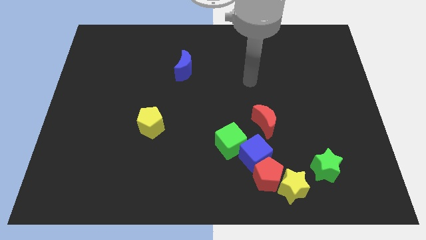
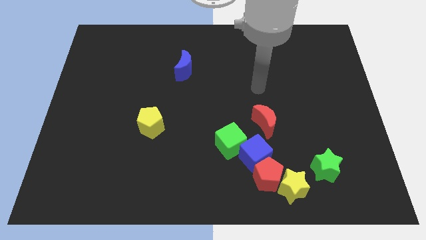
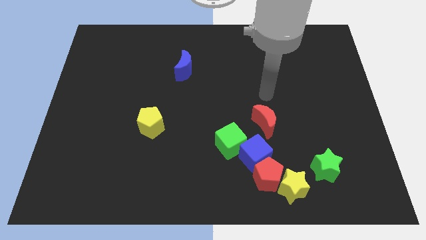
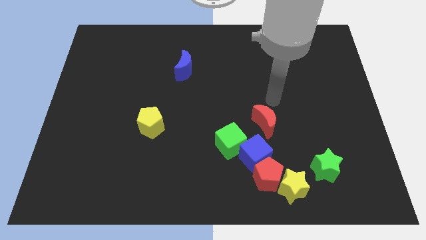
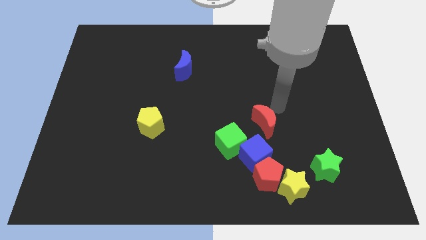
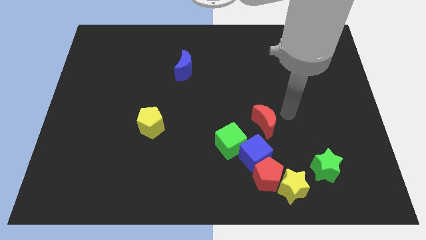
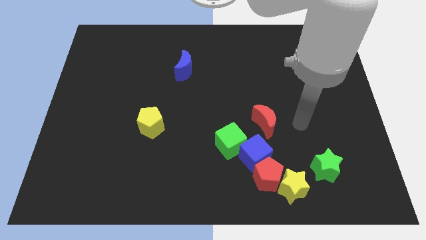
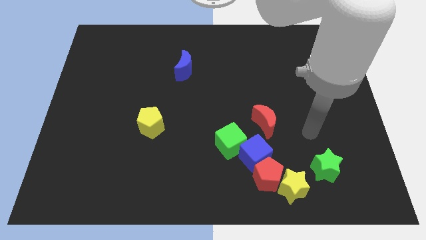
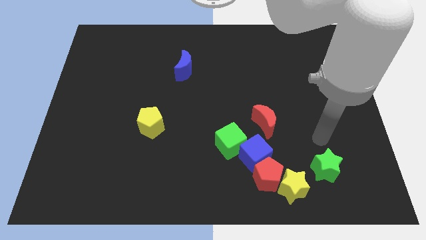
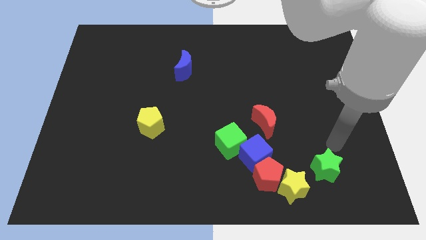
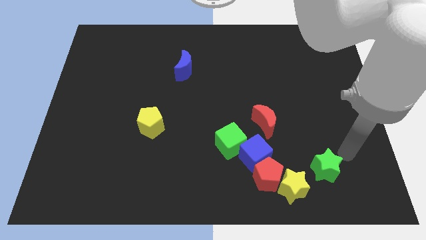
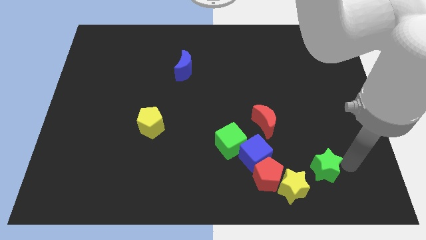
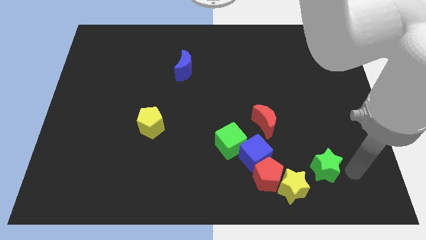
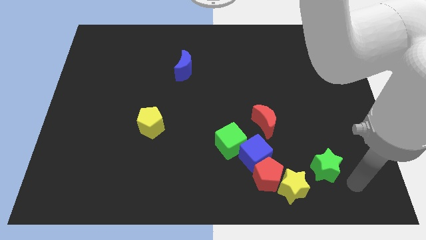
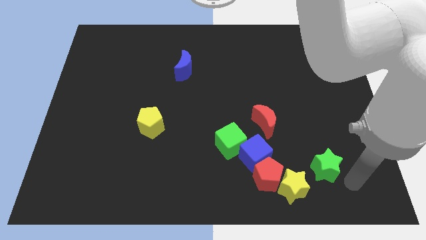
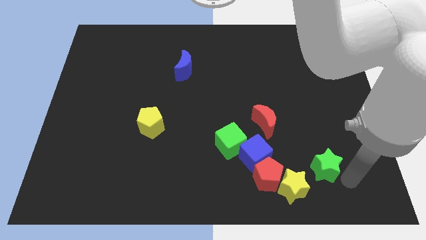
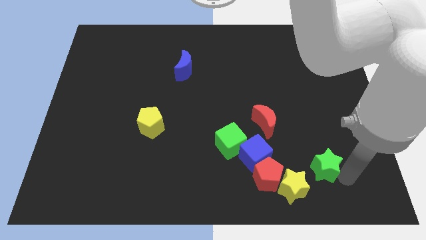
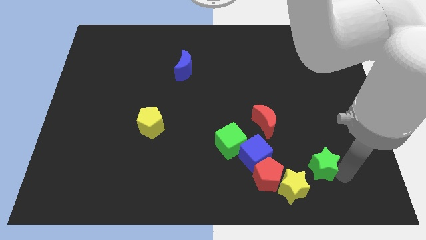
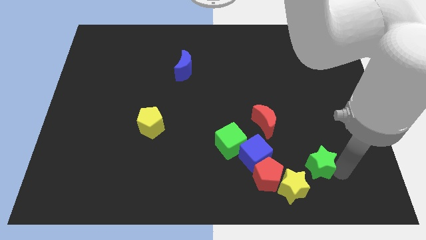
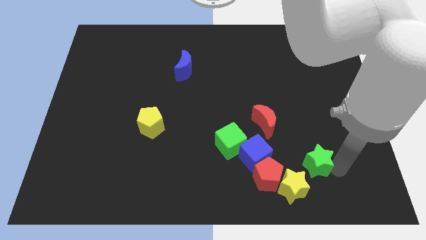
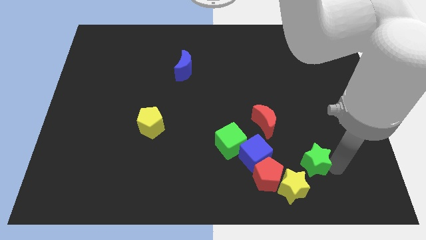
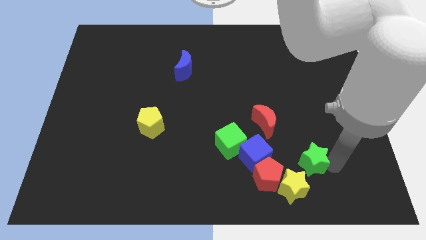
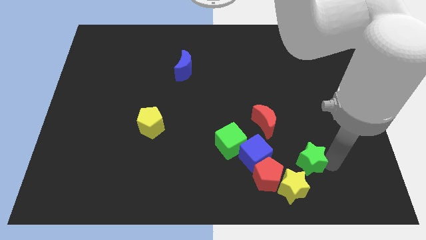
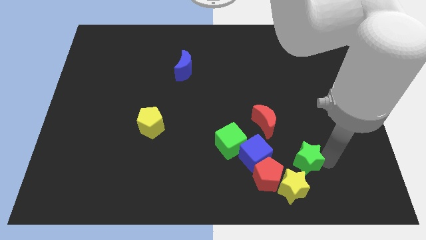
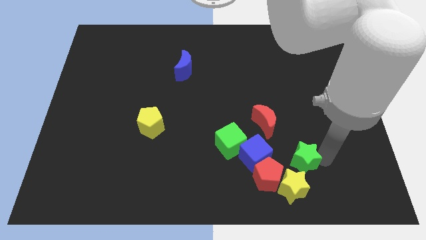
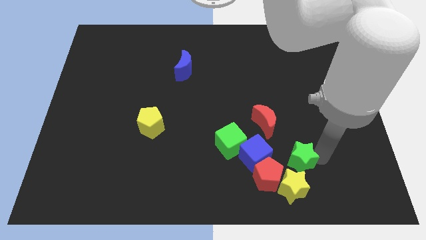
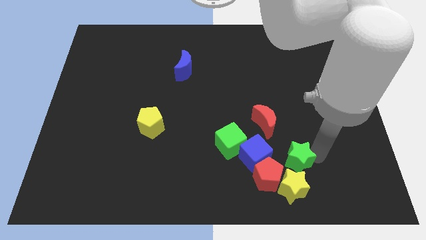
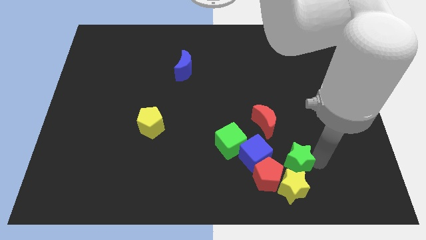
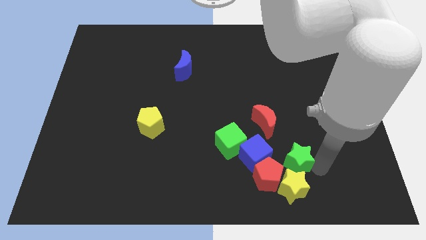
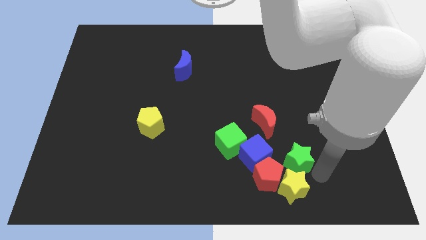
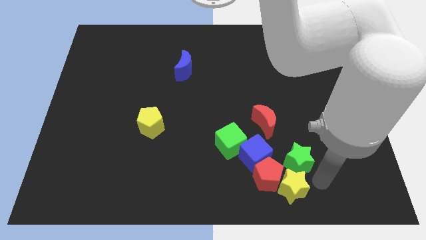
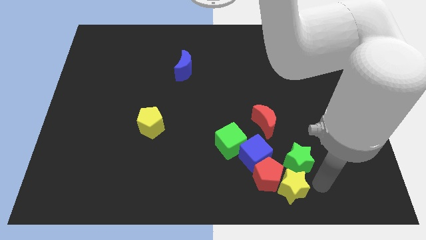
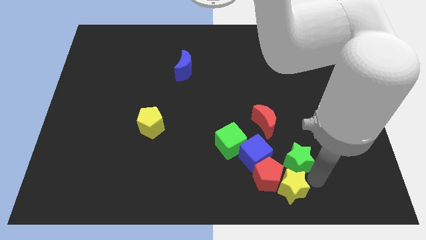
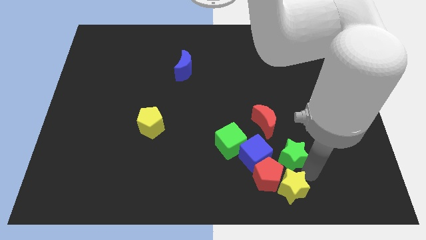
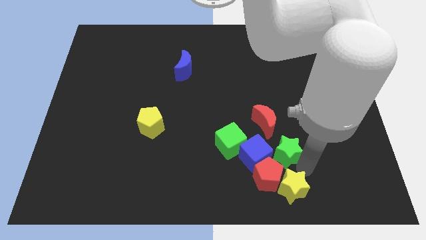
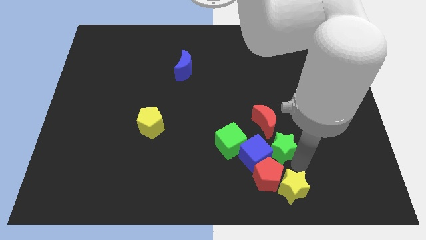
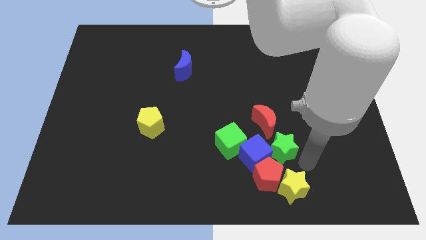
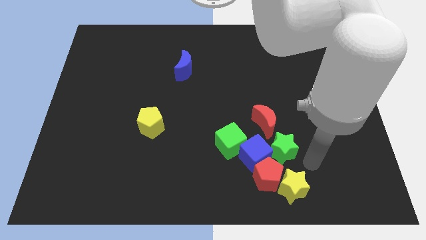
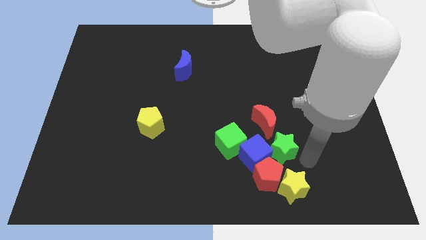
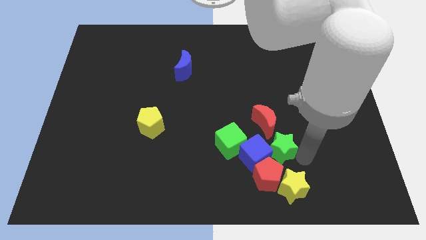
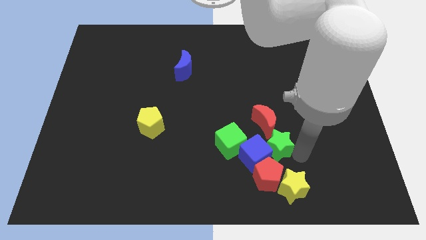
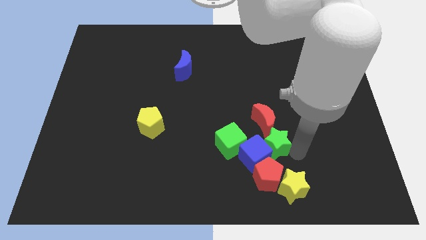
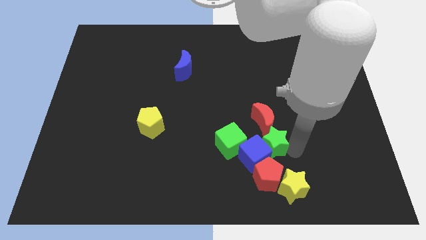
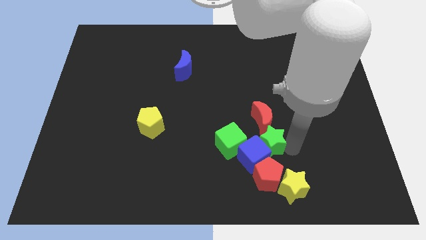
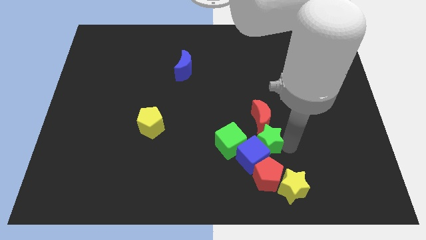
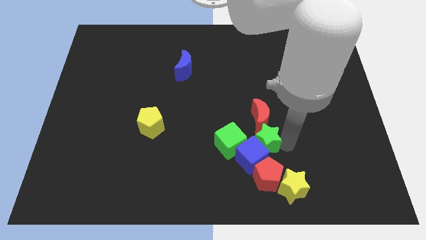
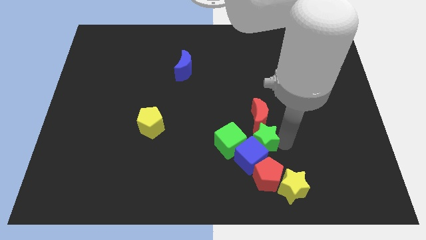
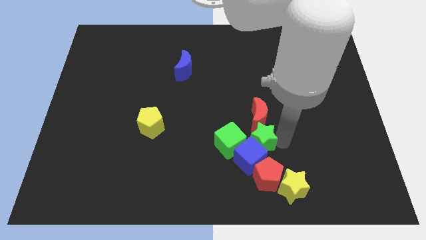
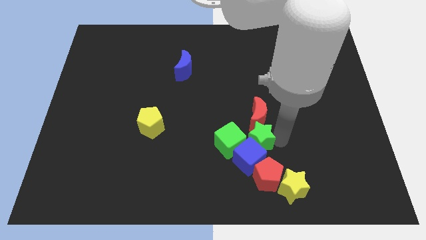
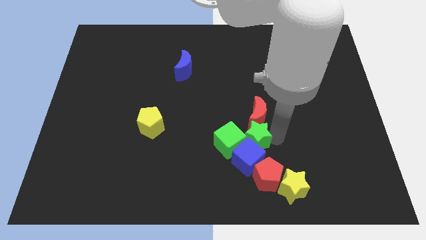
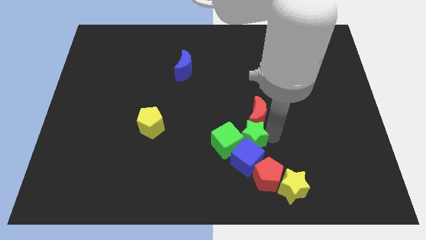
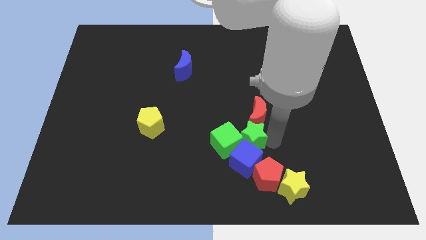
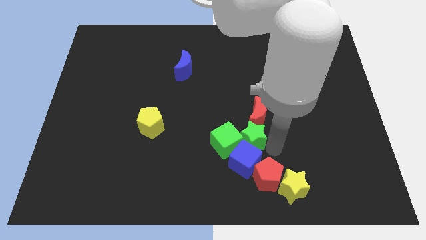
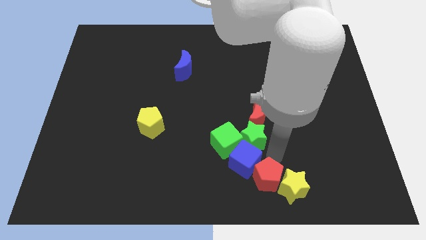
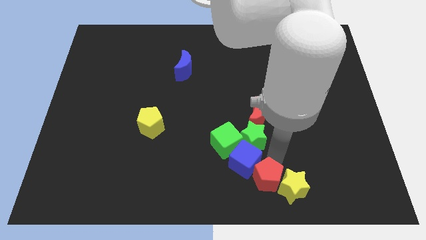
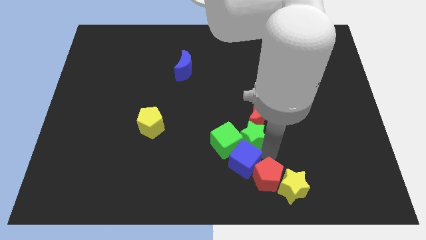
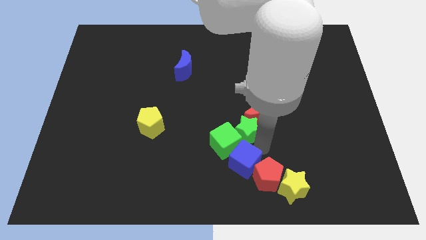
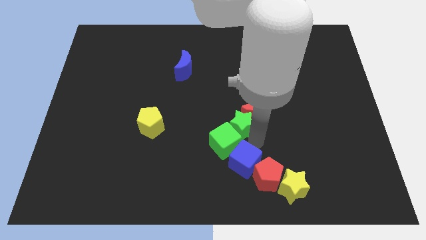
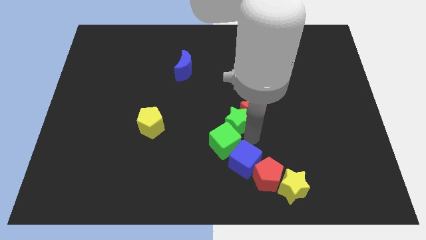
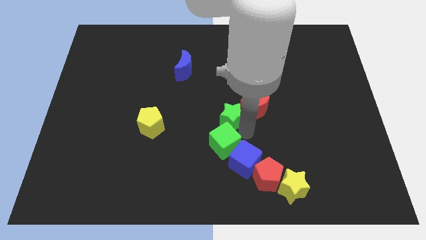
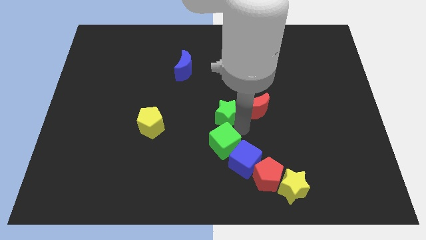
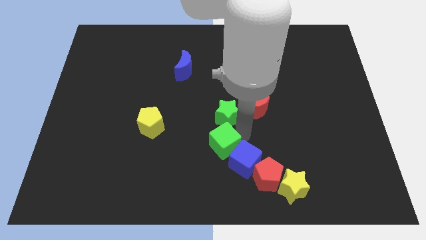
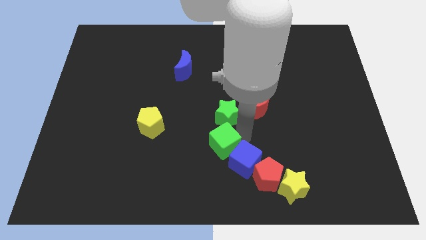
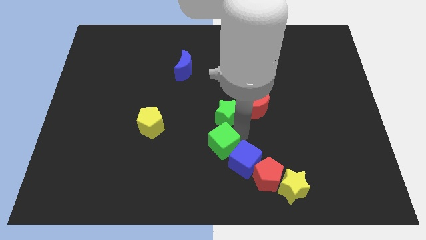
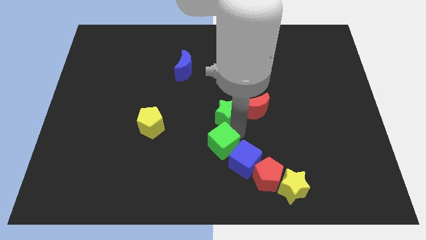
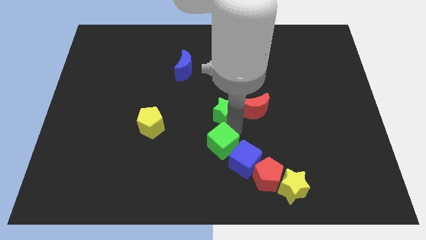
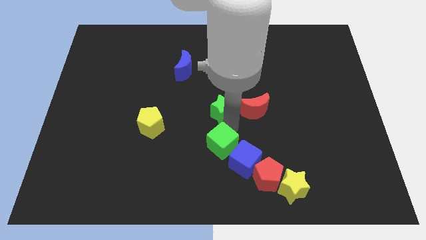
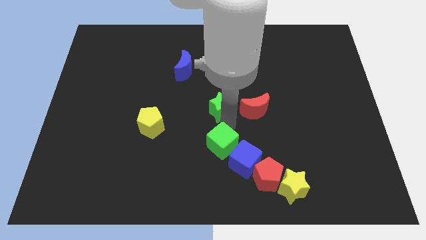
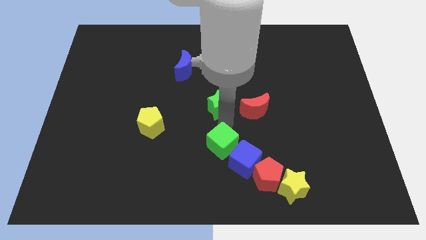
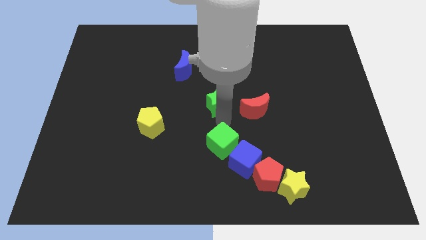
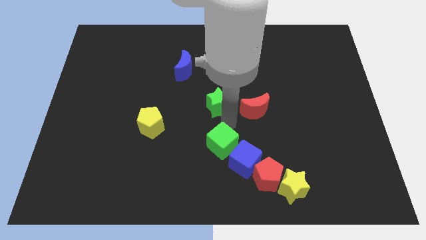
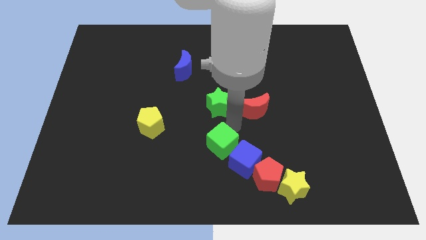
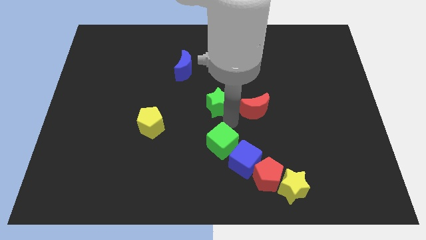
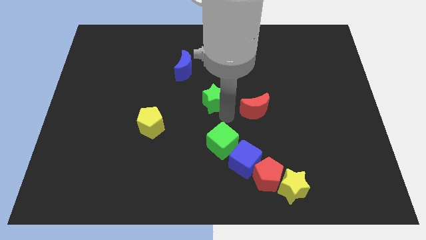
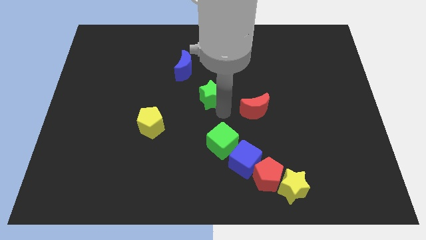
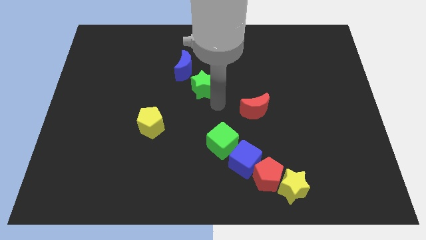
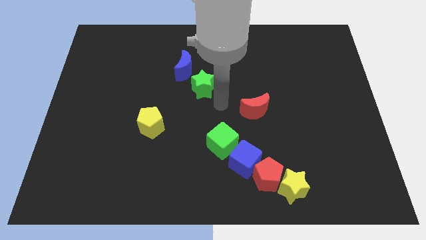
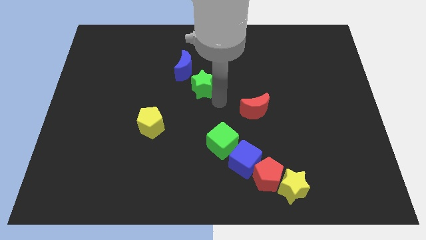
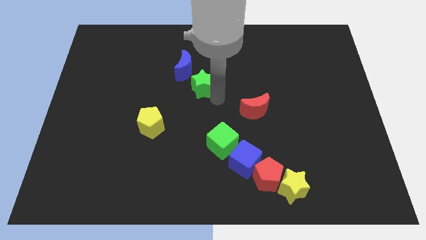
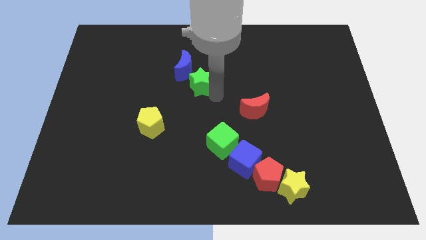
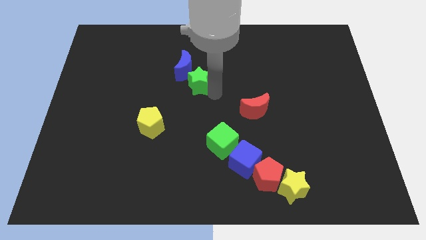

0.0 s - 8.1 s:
move the green star close to the blue moon

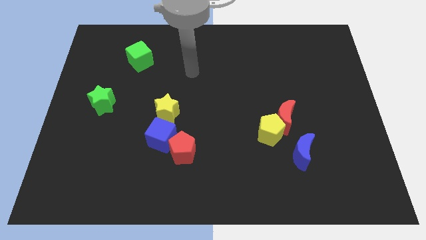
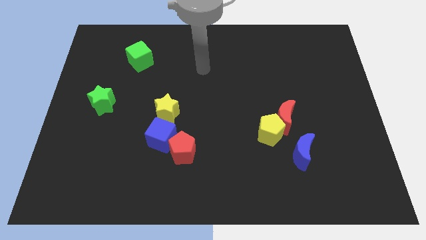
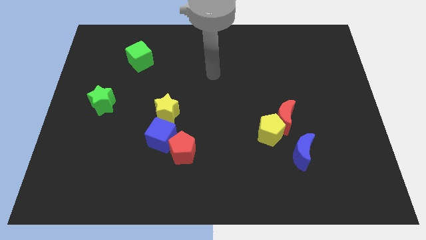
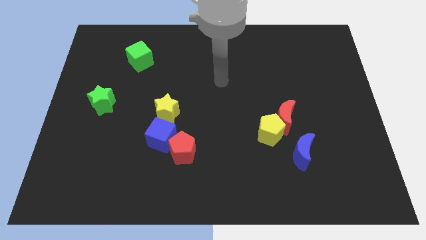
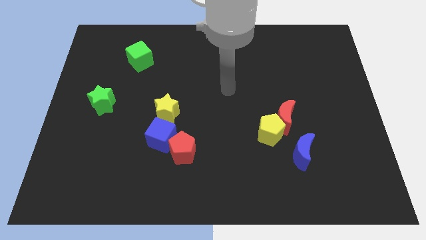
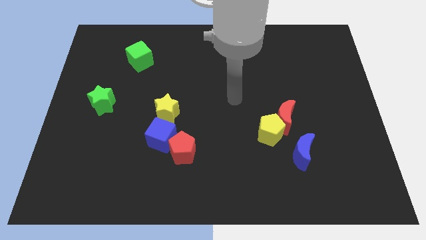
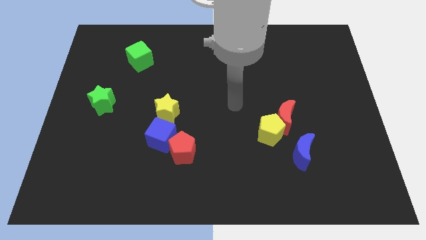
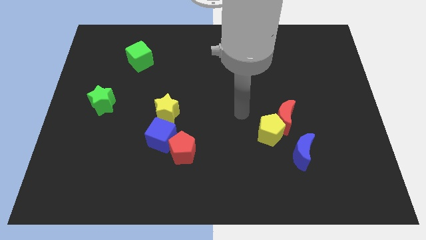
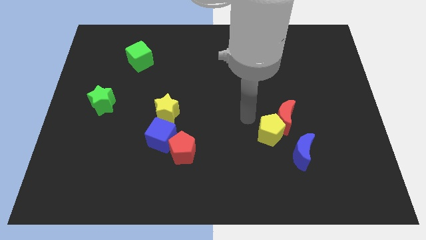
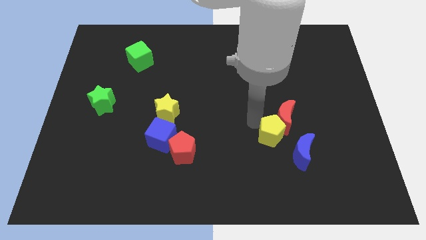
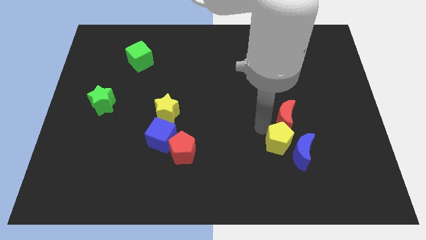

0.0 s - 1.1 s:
push the yellow pentagon close to the blue moon
